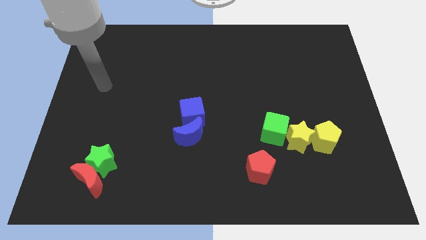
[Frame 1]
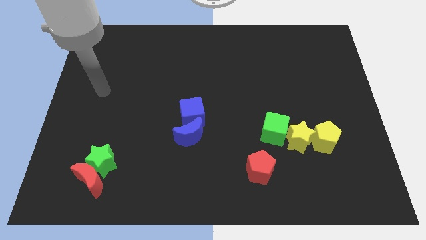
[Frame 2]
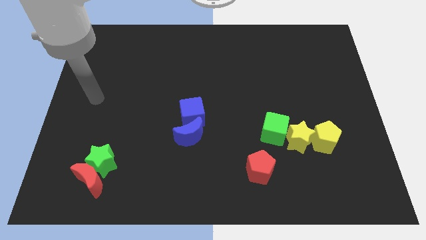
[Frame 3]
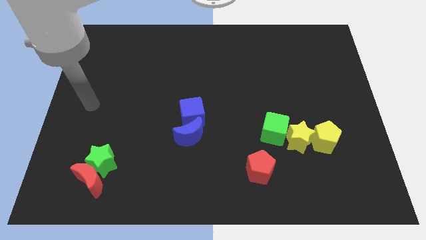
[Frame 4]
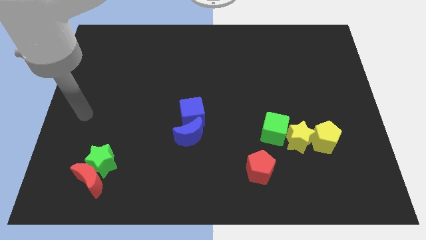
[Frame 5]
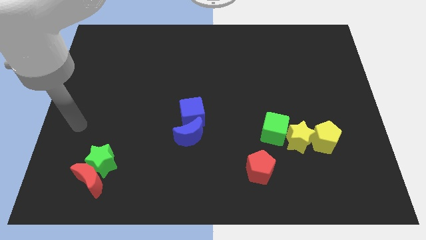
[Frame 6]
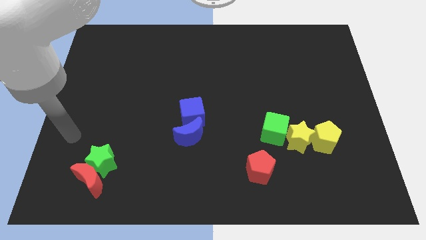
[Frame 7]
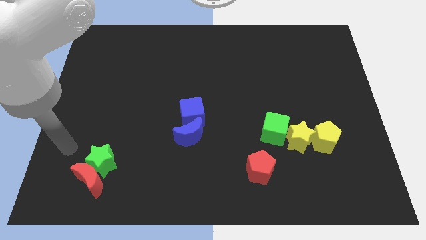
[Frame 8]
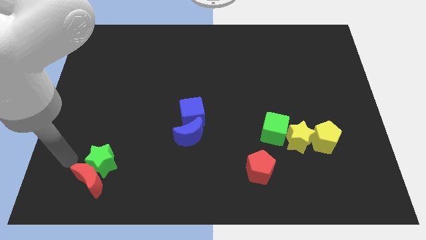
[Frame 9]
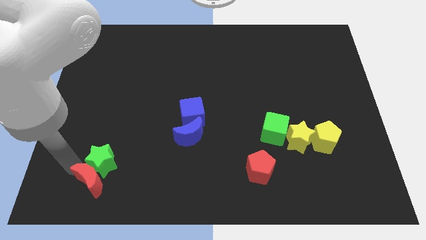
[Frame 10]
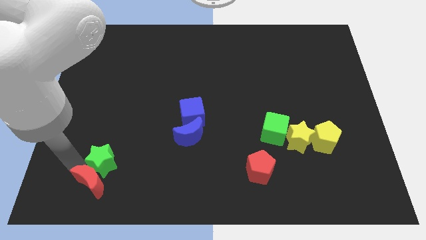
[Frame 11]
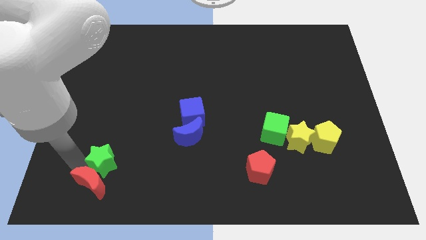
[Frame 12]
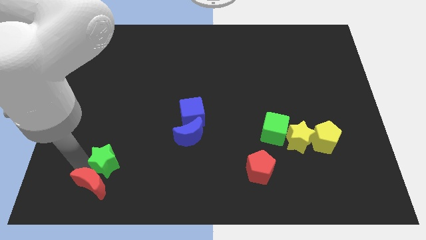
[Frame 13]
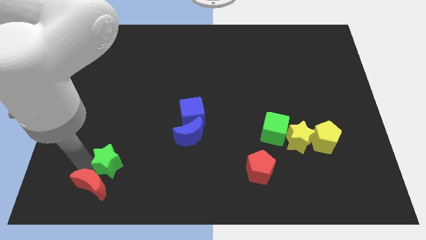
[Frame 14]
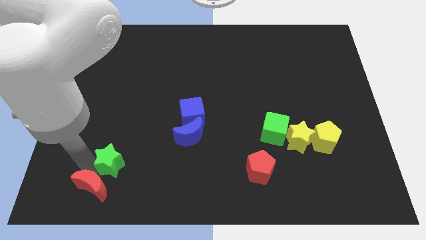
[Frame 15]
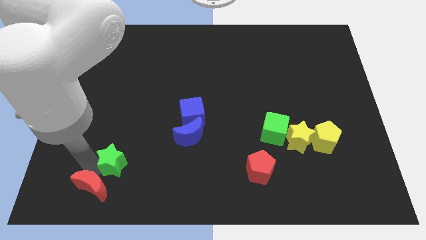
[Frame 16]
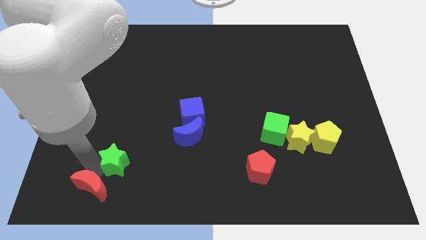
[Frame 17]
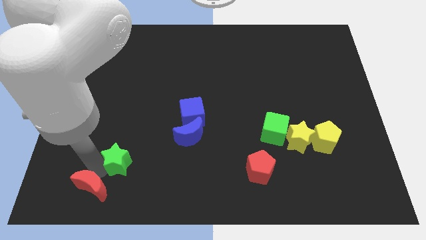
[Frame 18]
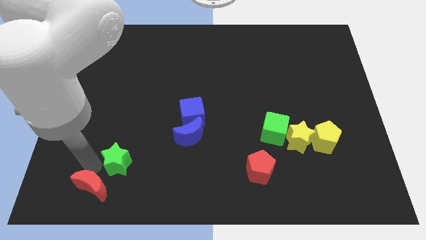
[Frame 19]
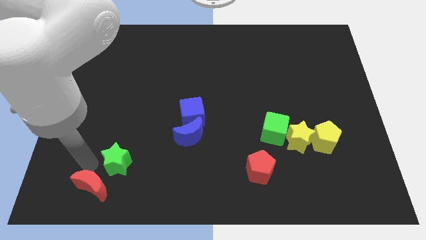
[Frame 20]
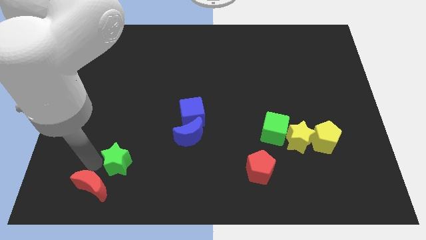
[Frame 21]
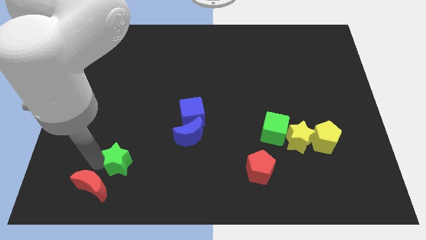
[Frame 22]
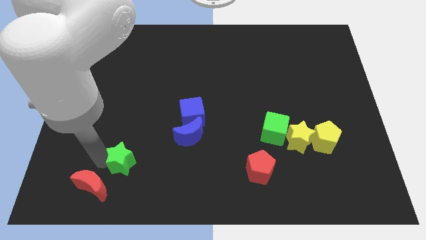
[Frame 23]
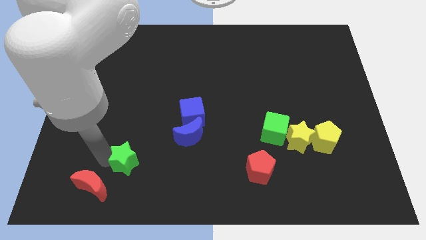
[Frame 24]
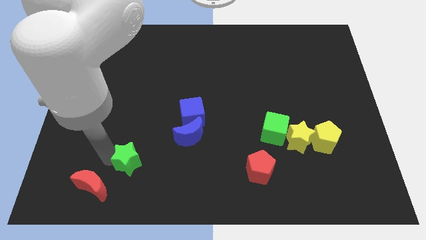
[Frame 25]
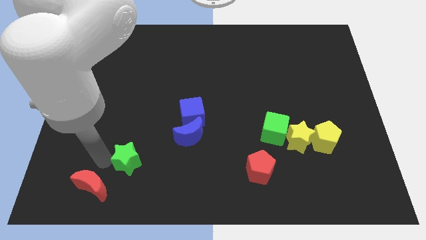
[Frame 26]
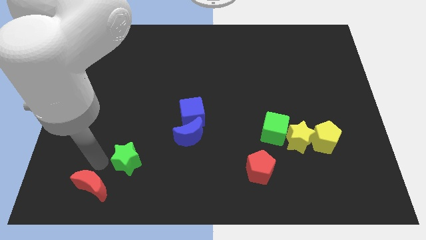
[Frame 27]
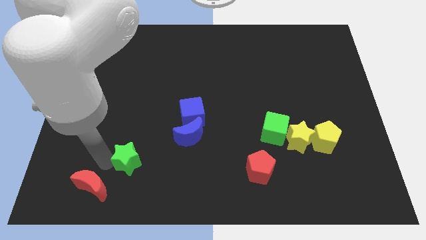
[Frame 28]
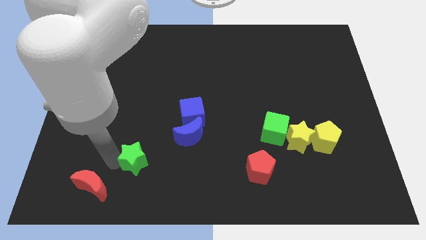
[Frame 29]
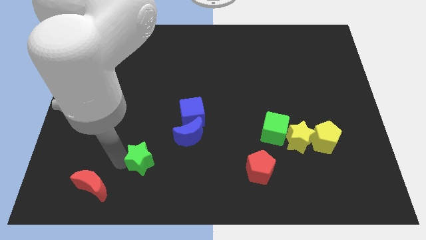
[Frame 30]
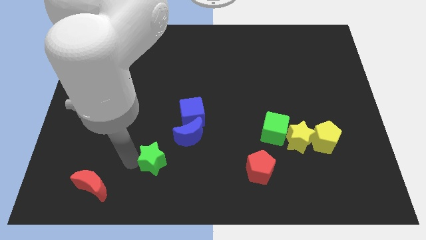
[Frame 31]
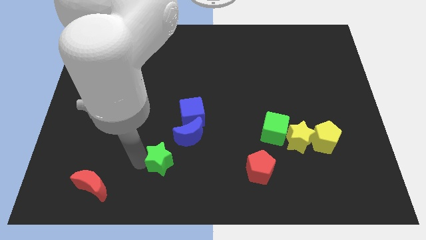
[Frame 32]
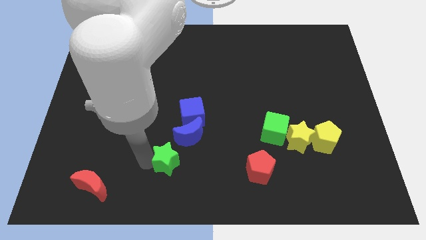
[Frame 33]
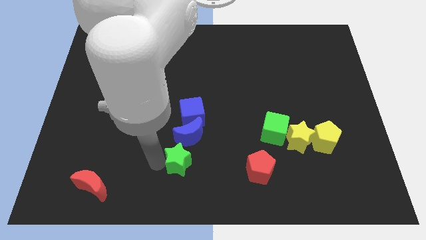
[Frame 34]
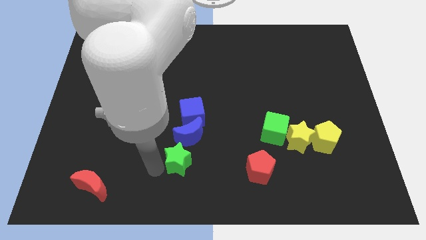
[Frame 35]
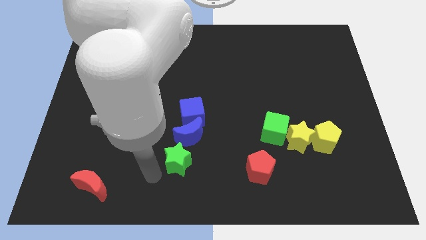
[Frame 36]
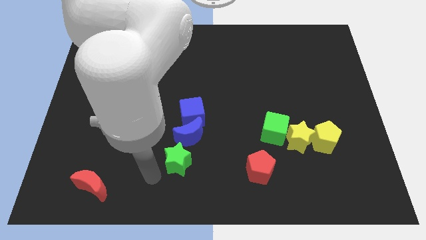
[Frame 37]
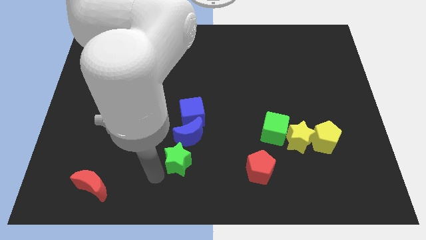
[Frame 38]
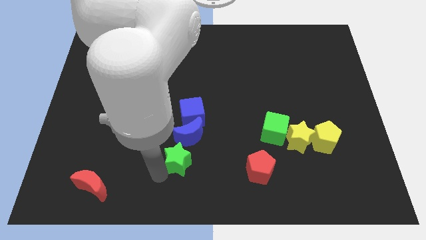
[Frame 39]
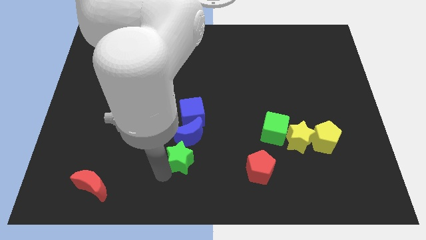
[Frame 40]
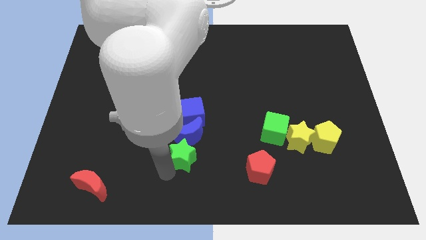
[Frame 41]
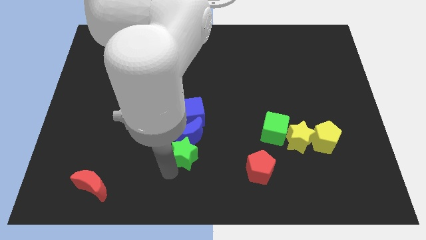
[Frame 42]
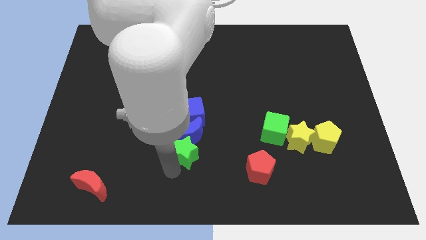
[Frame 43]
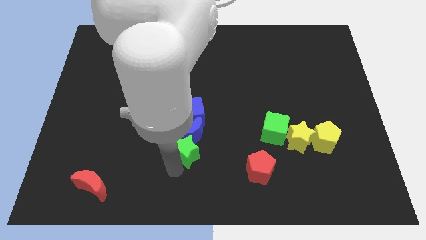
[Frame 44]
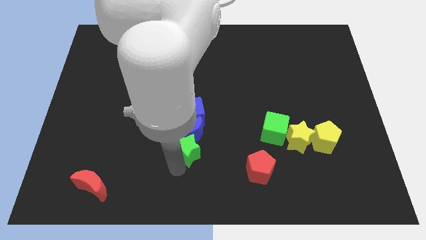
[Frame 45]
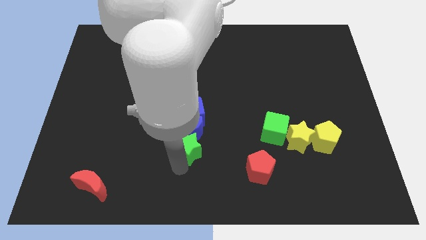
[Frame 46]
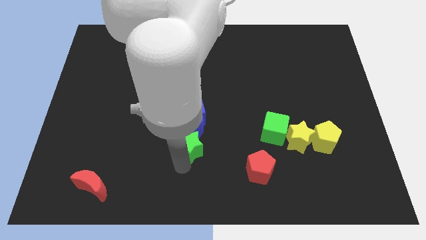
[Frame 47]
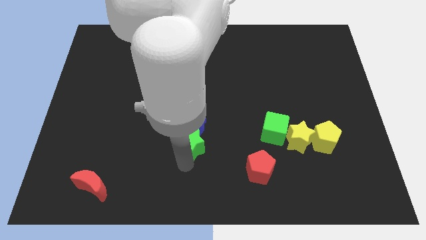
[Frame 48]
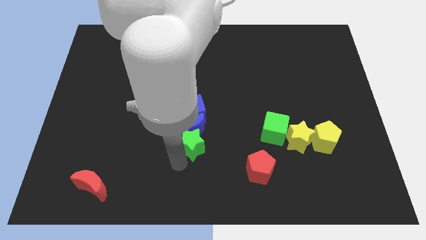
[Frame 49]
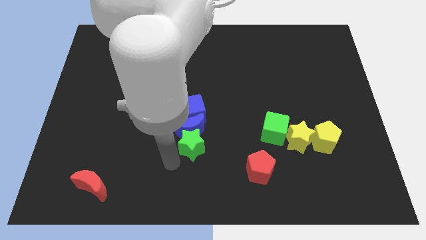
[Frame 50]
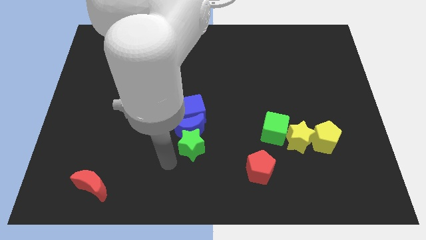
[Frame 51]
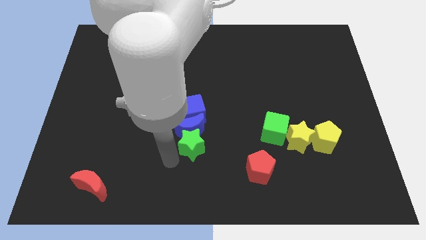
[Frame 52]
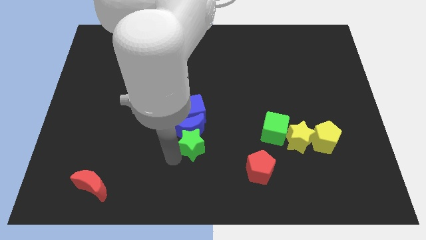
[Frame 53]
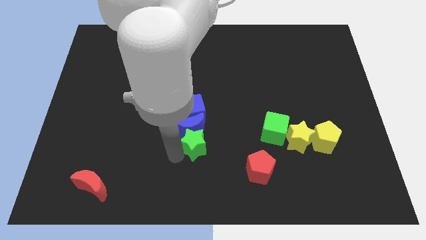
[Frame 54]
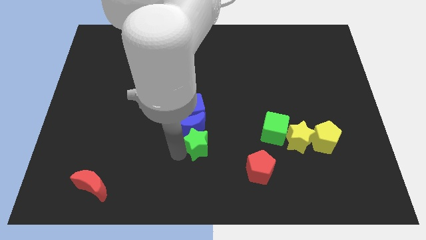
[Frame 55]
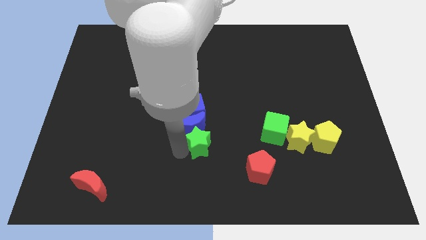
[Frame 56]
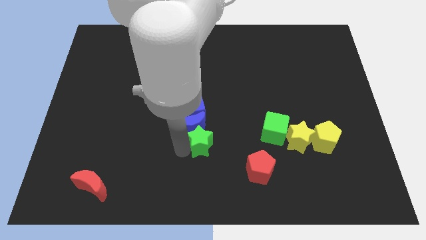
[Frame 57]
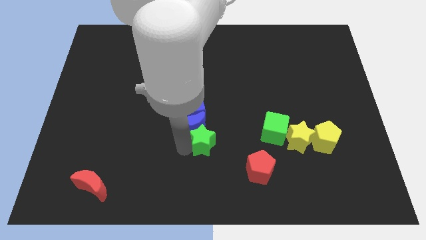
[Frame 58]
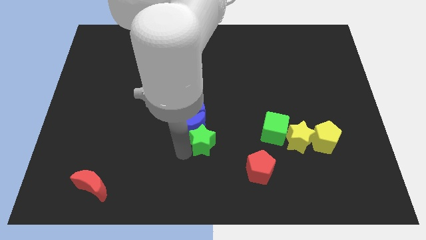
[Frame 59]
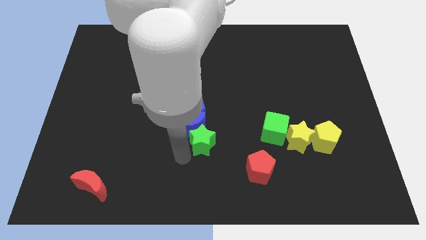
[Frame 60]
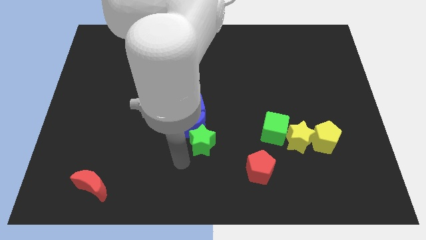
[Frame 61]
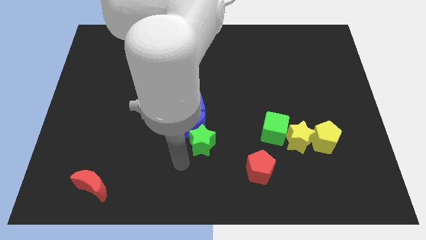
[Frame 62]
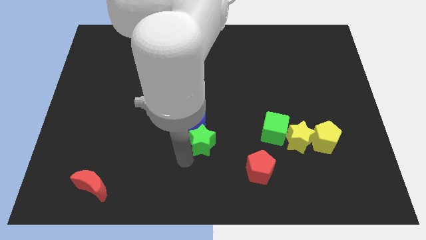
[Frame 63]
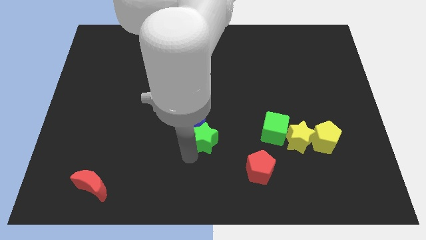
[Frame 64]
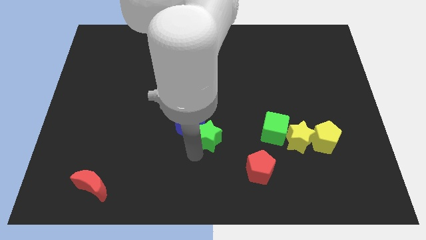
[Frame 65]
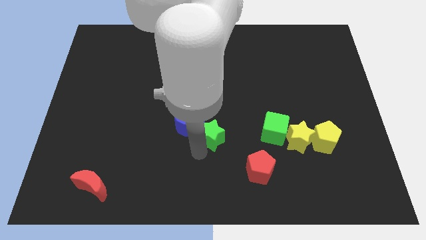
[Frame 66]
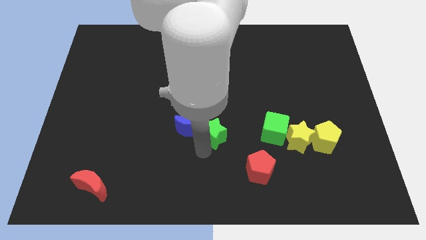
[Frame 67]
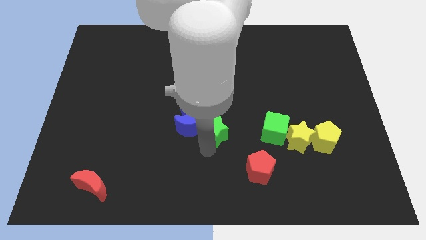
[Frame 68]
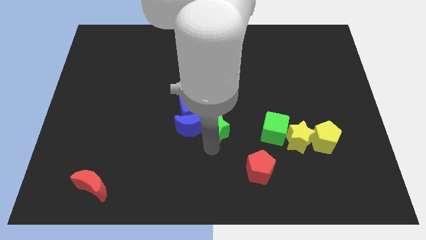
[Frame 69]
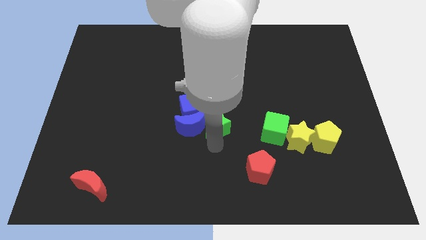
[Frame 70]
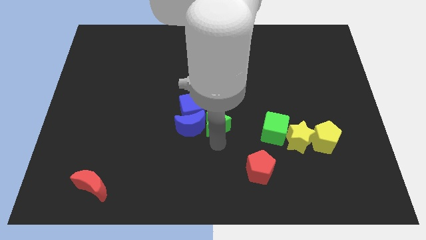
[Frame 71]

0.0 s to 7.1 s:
put the green star to the right side of the blue cube

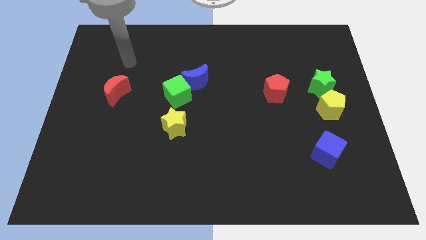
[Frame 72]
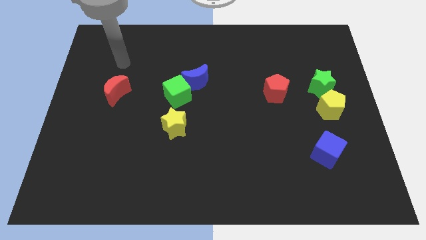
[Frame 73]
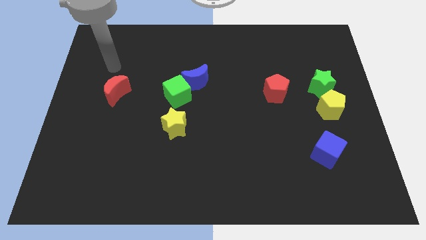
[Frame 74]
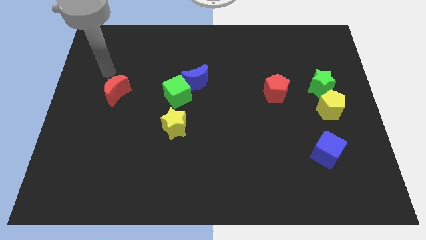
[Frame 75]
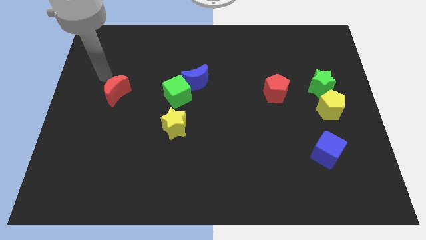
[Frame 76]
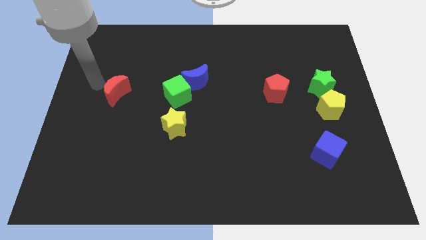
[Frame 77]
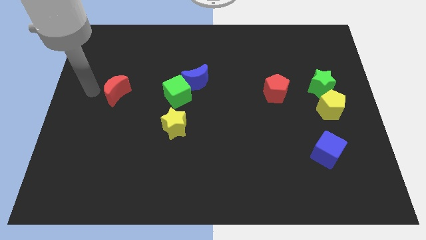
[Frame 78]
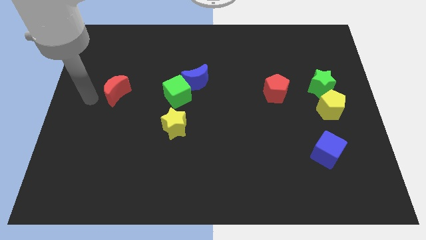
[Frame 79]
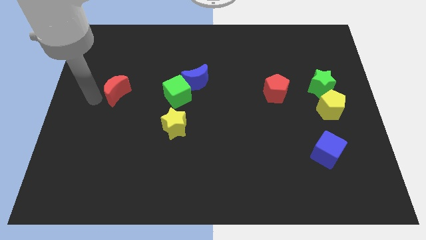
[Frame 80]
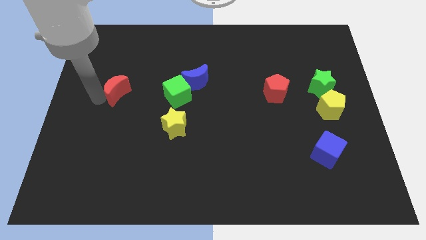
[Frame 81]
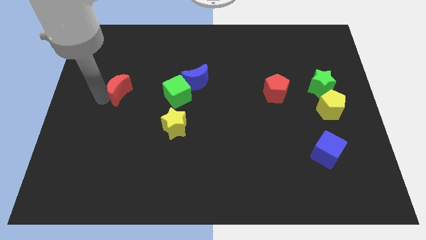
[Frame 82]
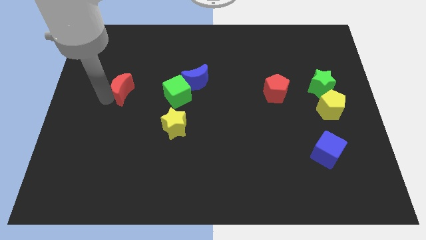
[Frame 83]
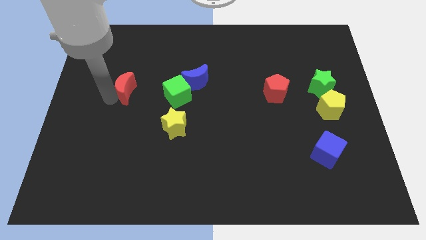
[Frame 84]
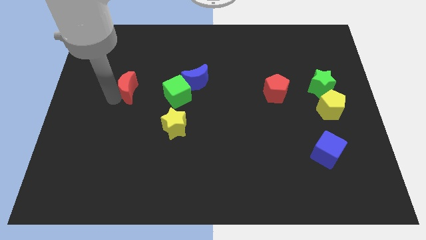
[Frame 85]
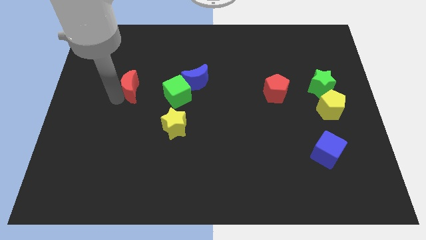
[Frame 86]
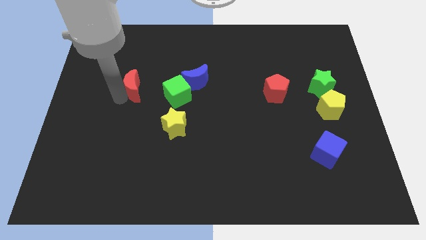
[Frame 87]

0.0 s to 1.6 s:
move the red moon just left of the blue moon
